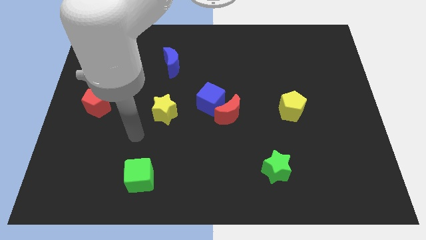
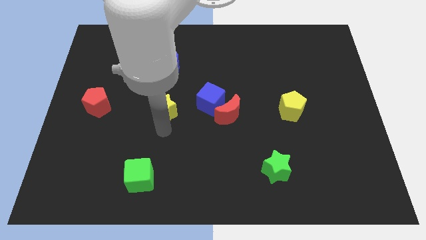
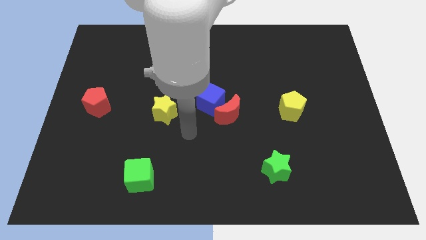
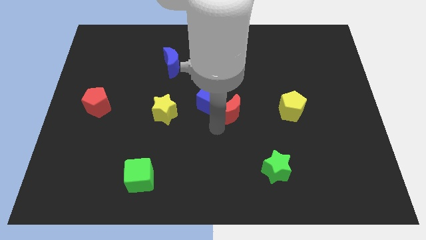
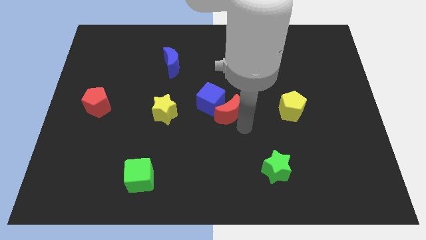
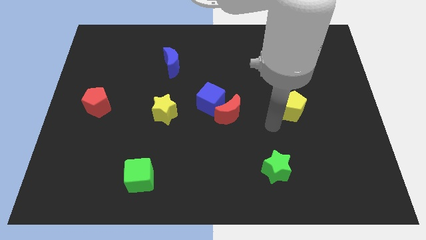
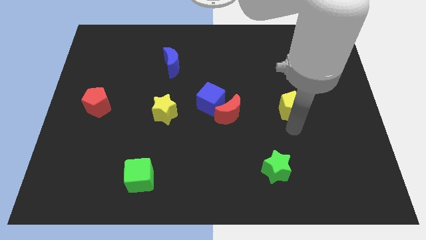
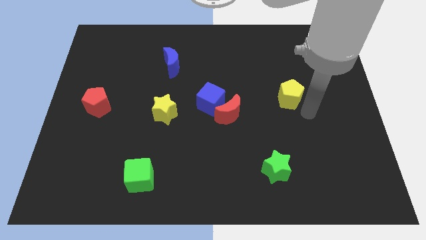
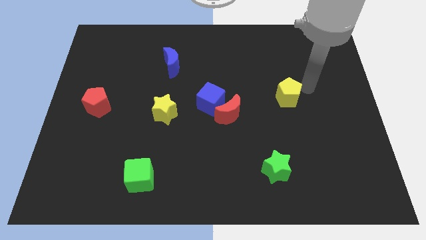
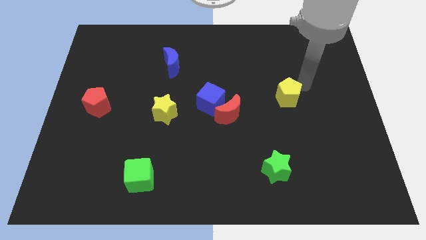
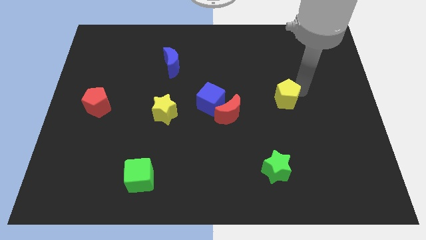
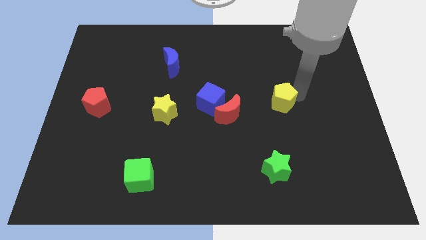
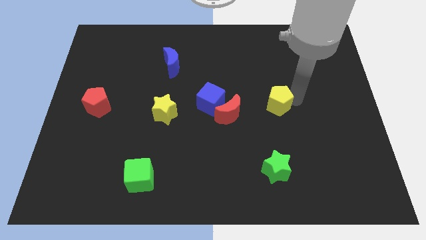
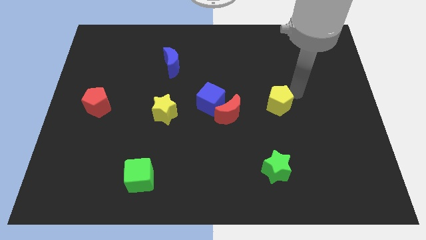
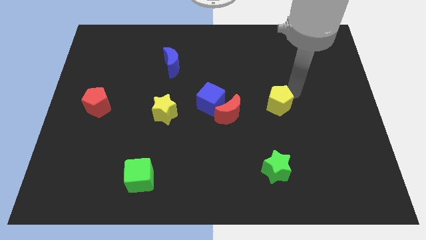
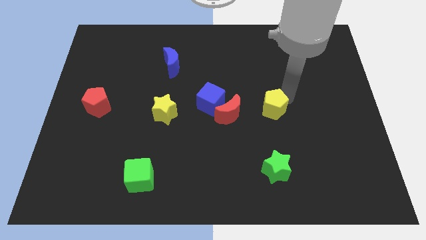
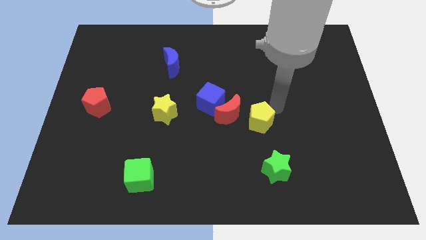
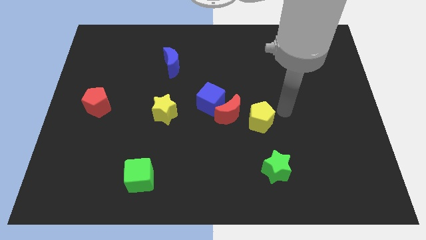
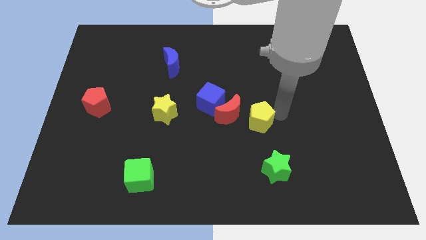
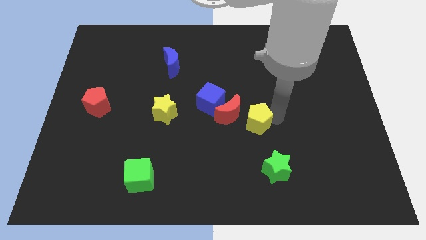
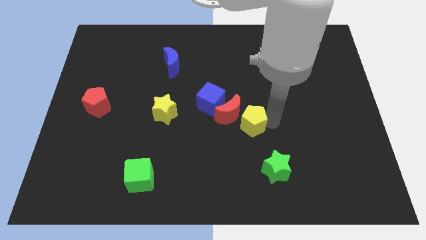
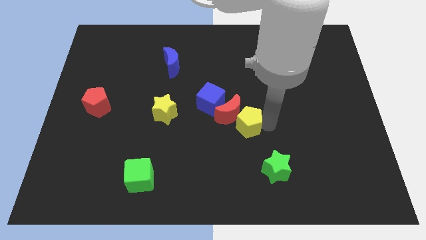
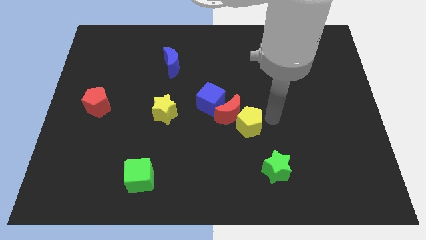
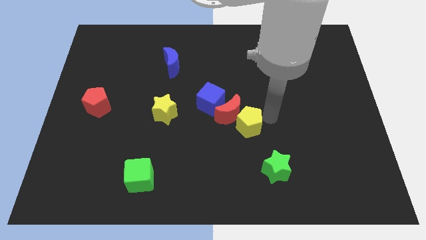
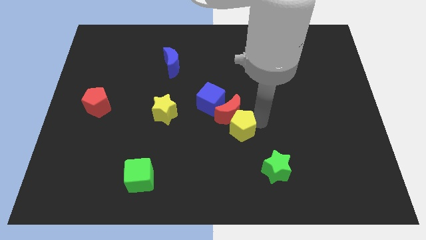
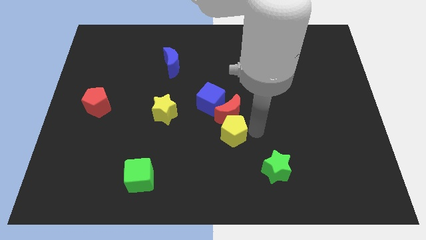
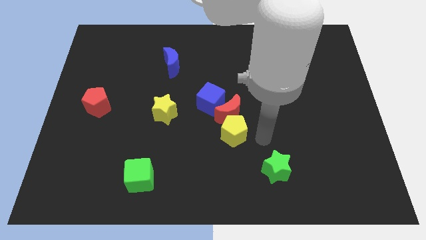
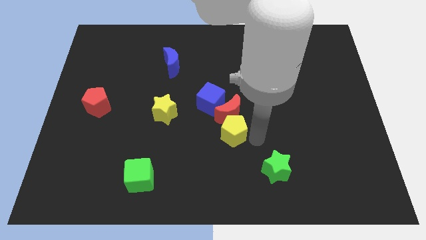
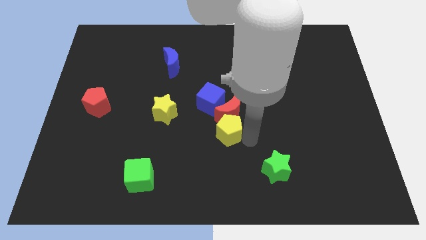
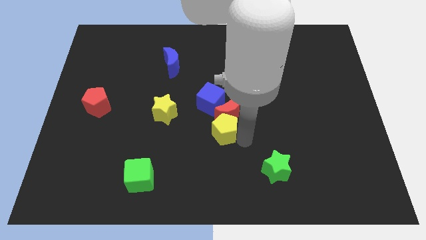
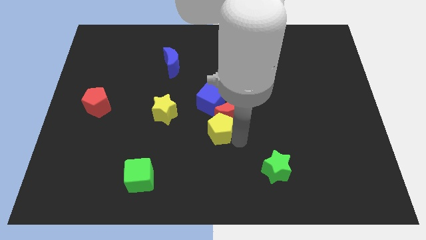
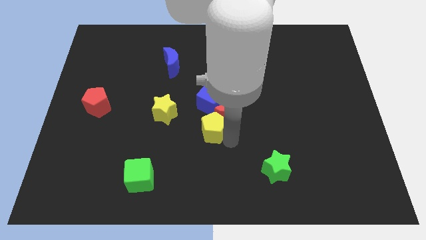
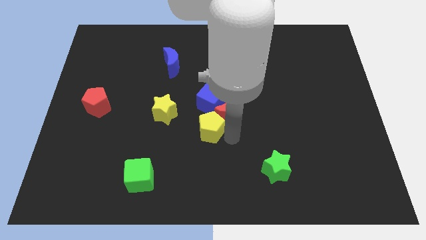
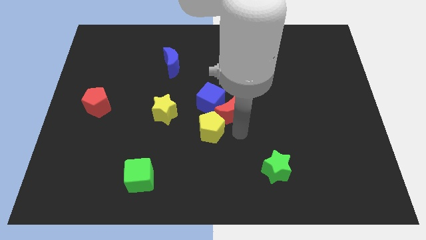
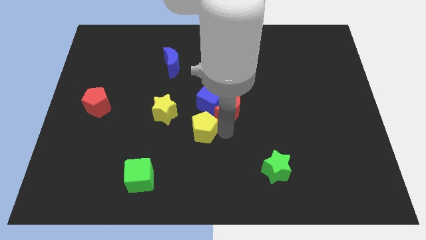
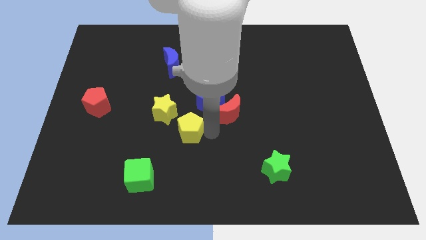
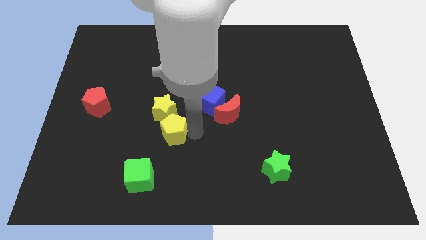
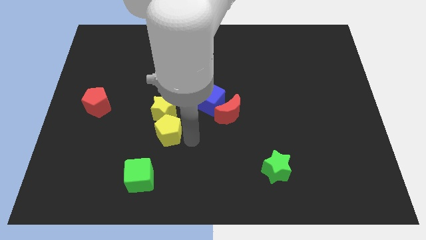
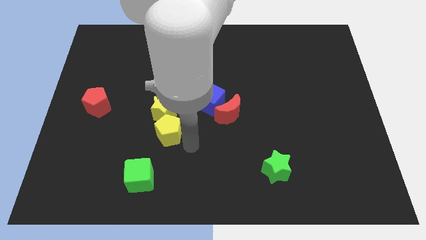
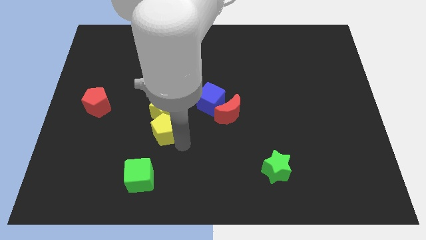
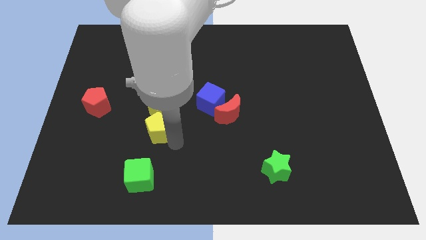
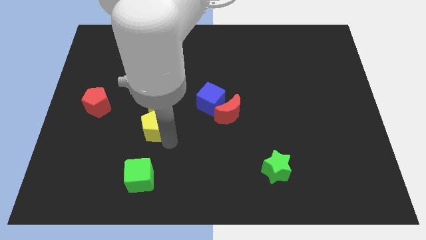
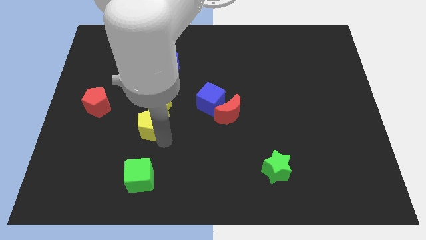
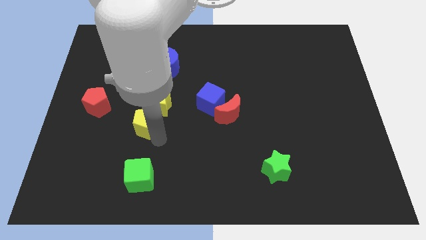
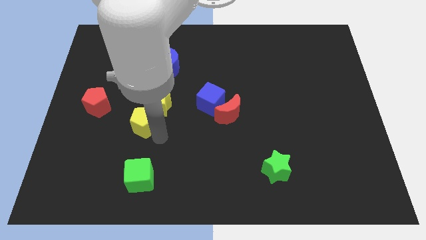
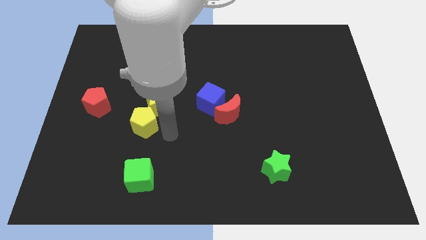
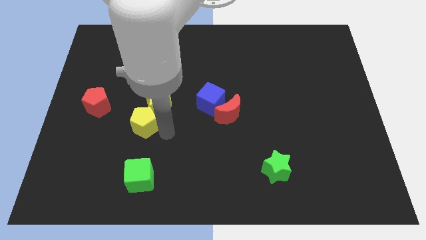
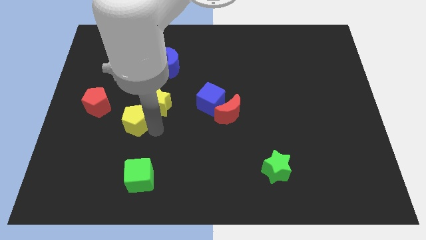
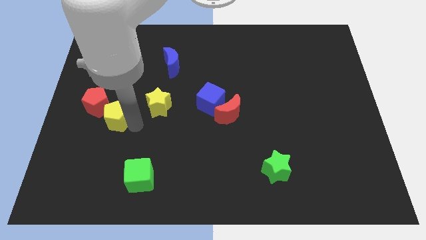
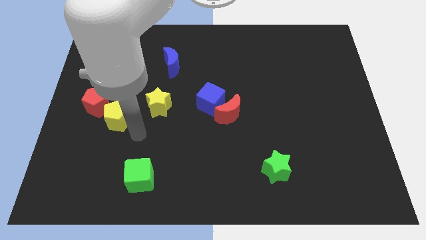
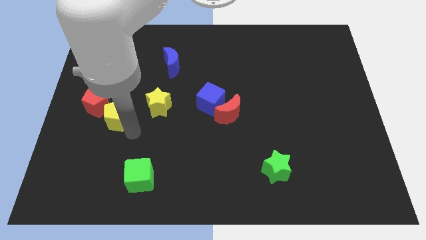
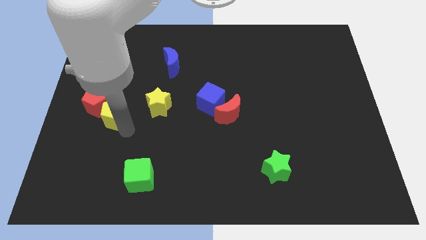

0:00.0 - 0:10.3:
push the yellow pentagon to the red pentagon

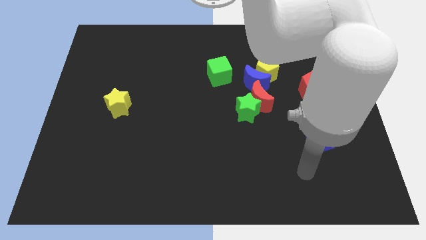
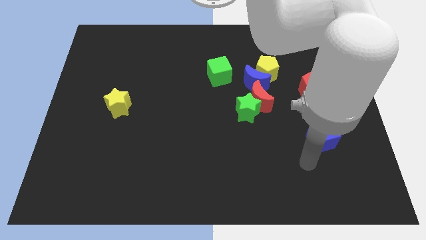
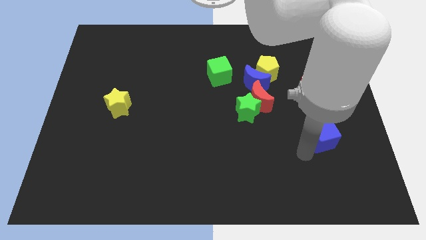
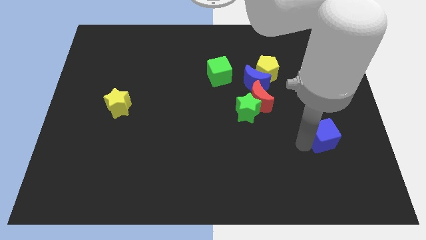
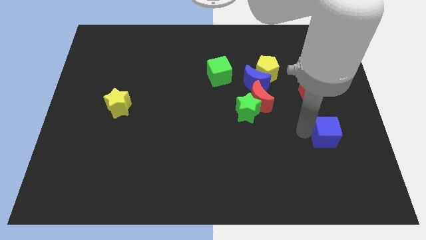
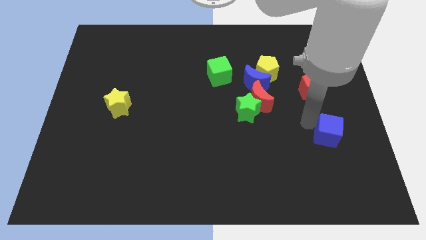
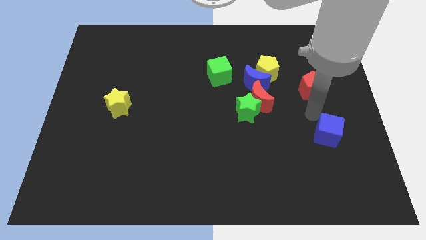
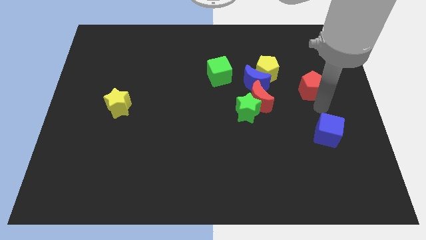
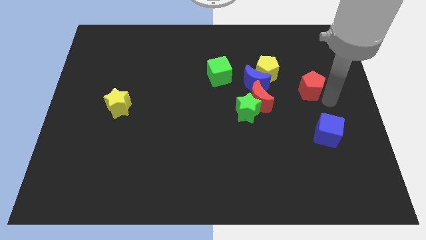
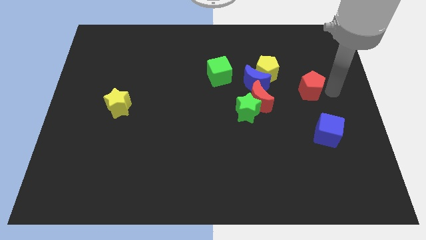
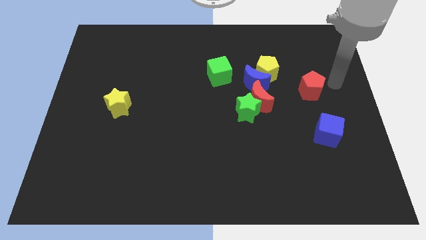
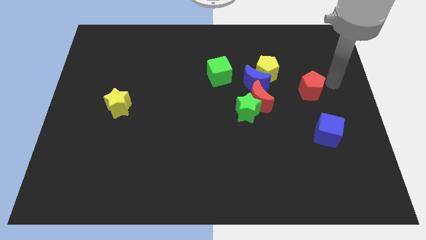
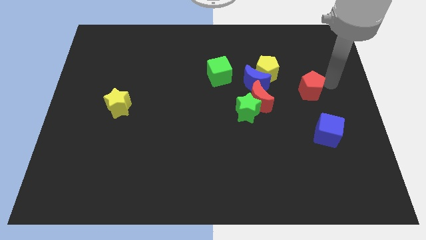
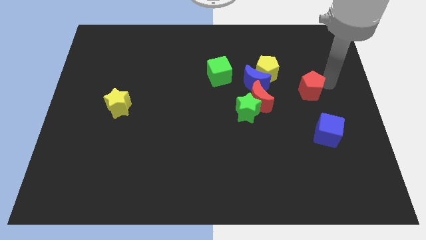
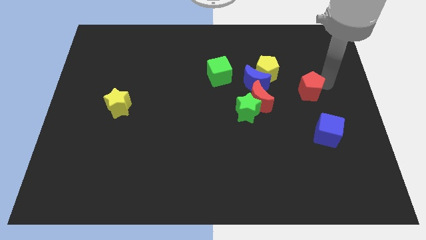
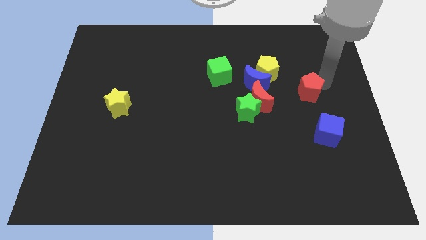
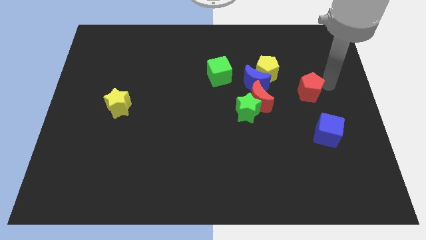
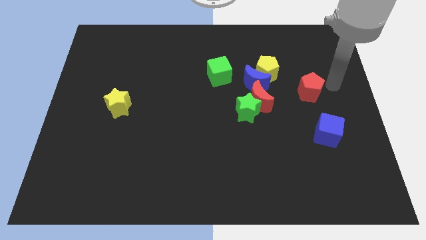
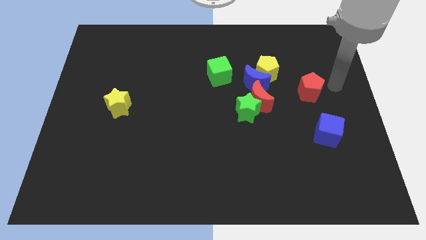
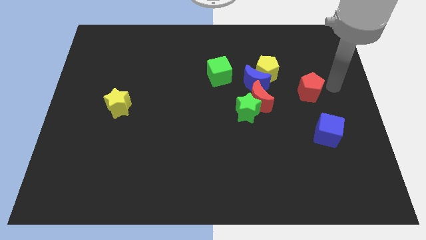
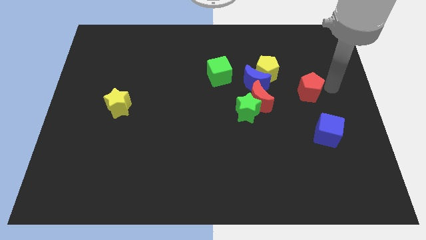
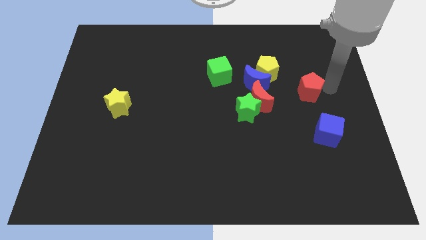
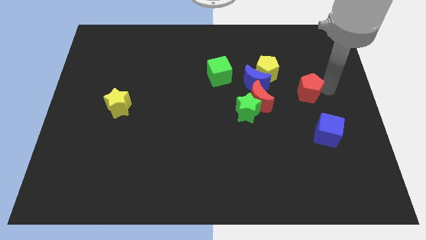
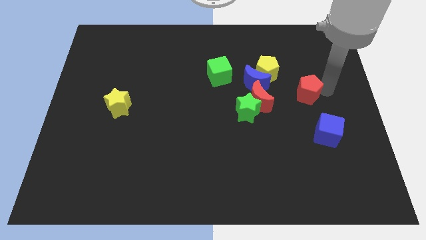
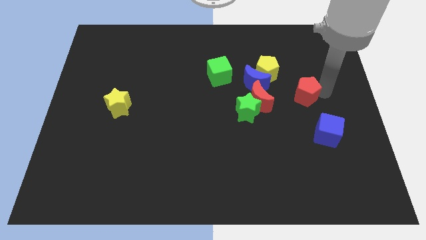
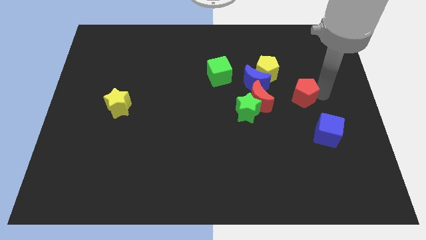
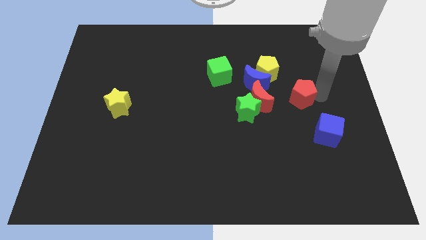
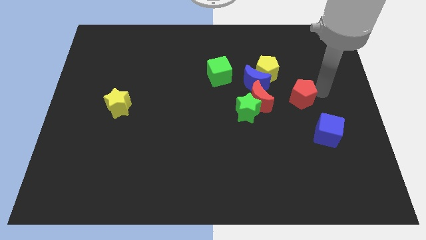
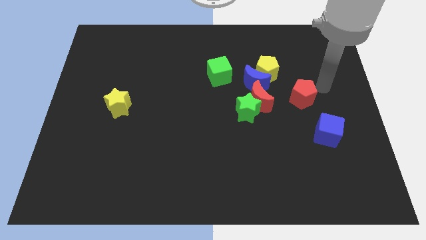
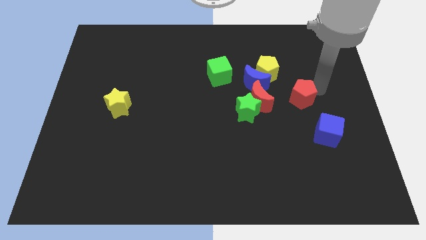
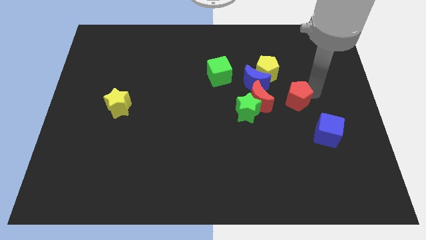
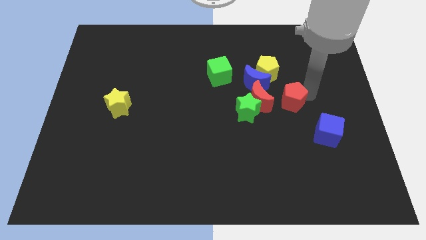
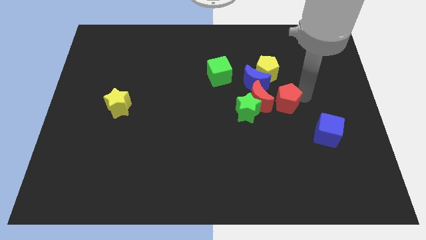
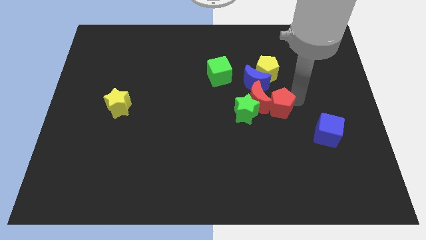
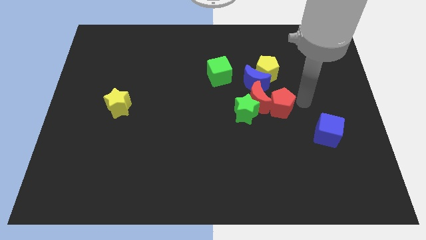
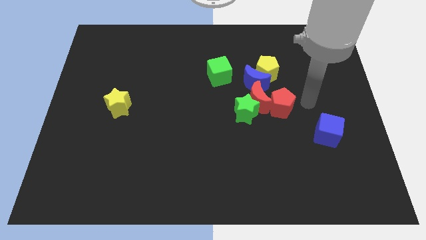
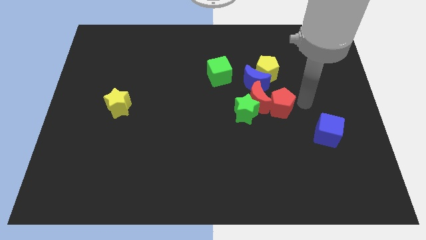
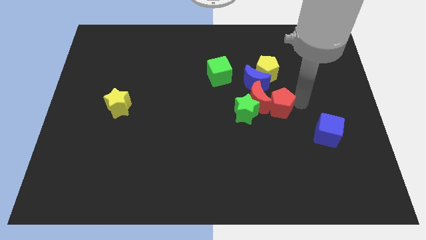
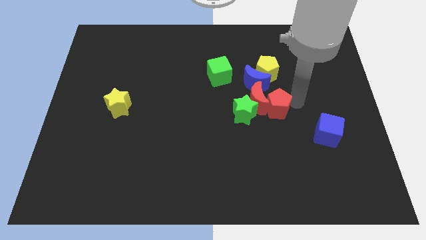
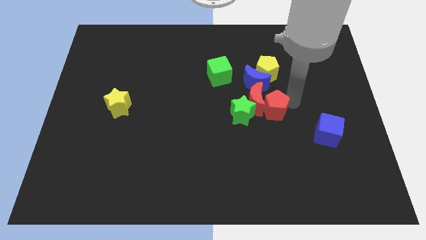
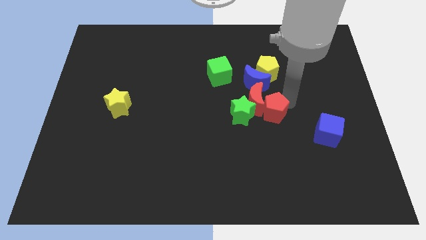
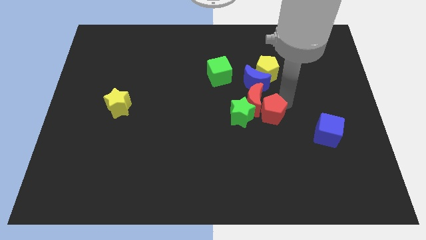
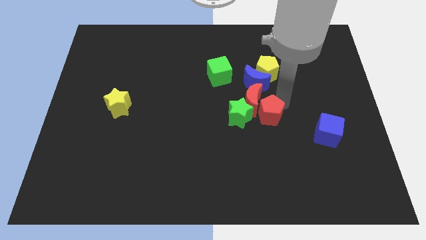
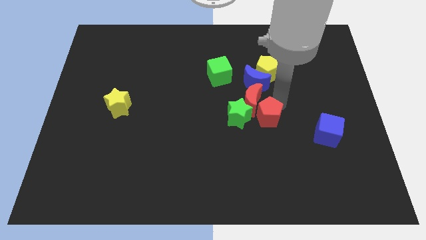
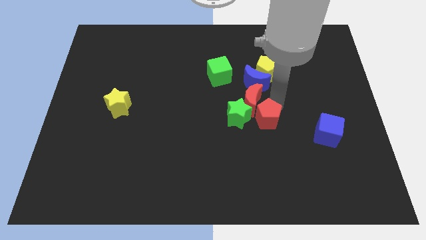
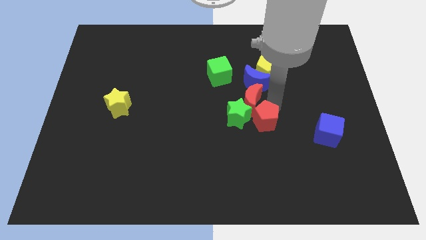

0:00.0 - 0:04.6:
move the red pentagon to the green star
